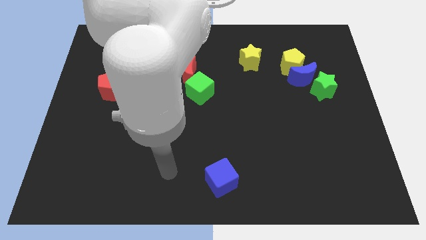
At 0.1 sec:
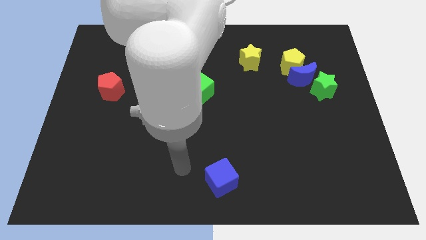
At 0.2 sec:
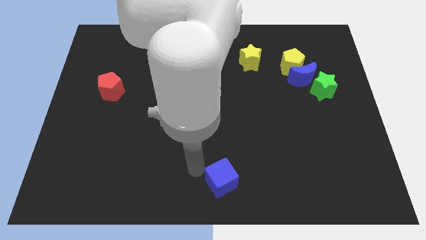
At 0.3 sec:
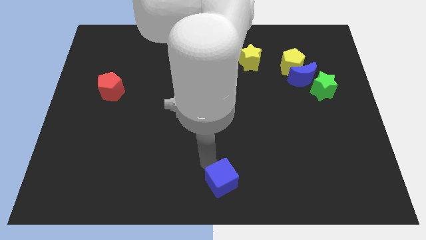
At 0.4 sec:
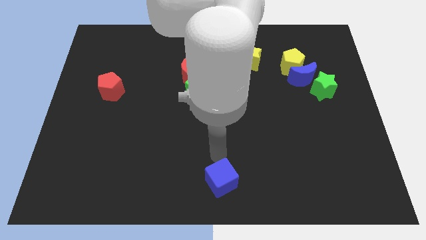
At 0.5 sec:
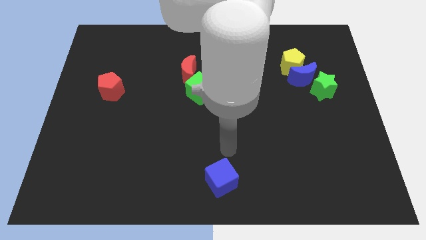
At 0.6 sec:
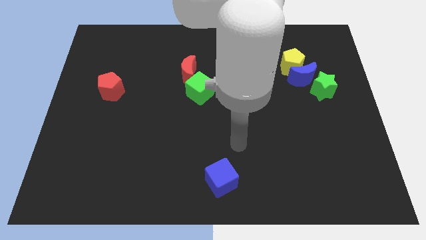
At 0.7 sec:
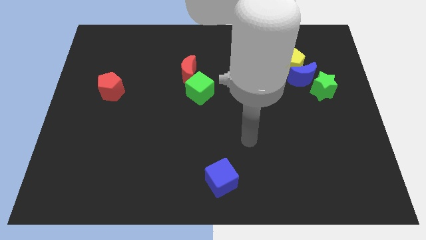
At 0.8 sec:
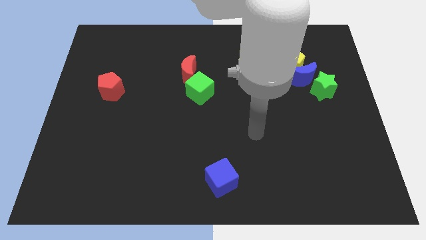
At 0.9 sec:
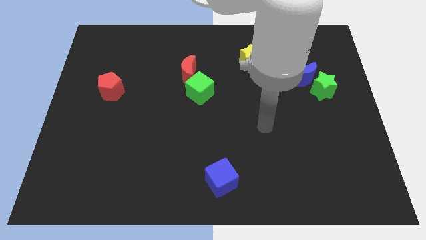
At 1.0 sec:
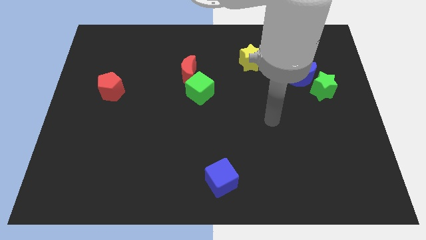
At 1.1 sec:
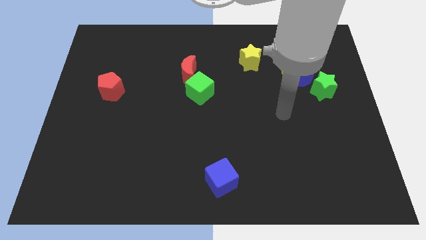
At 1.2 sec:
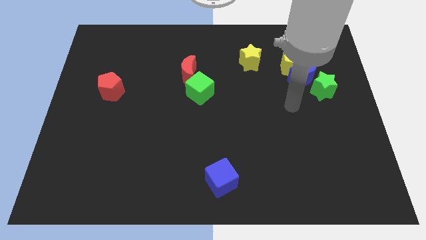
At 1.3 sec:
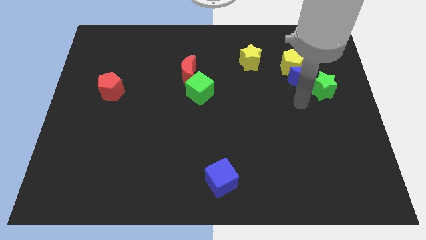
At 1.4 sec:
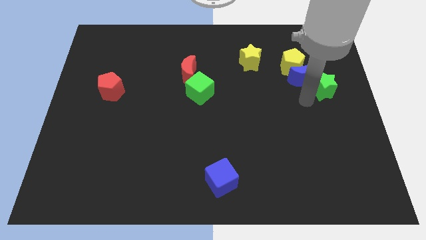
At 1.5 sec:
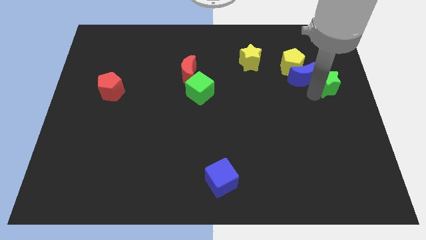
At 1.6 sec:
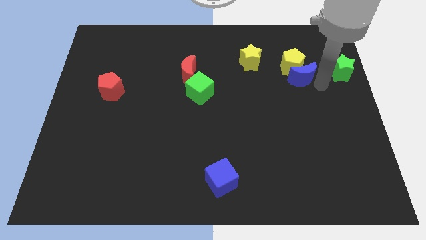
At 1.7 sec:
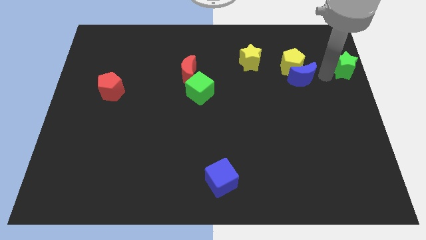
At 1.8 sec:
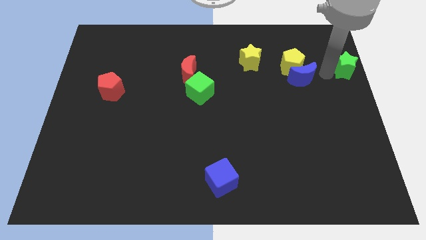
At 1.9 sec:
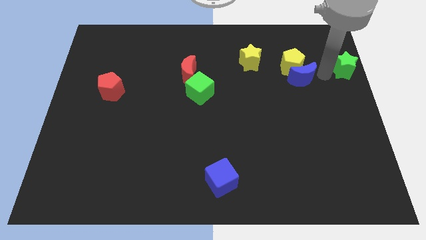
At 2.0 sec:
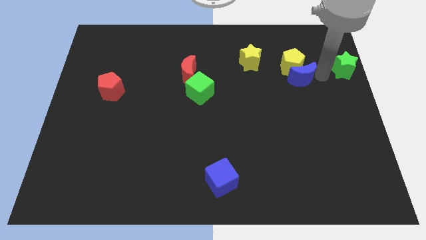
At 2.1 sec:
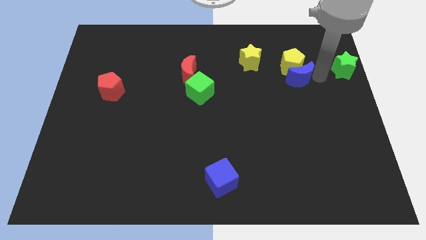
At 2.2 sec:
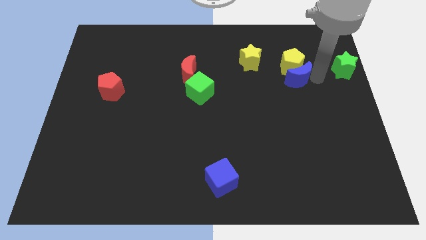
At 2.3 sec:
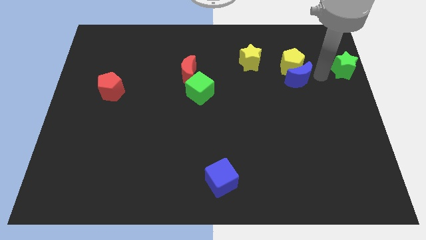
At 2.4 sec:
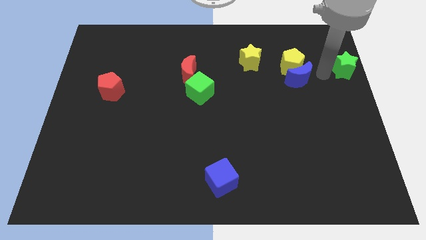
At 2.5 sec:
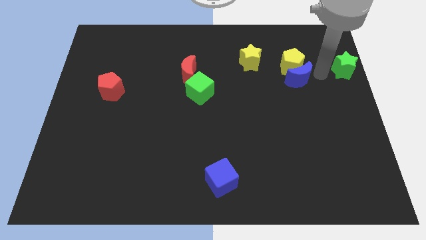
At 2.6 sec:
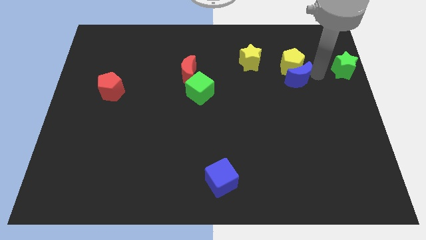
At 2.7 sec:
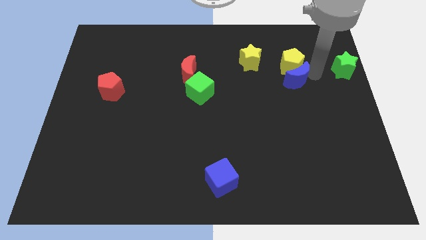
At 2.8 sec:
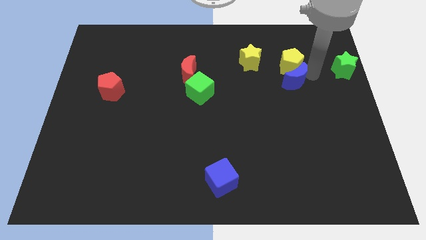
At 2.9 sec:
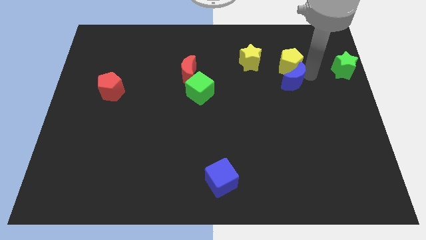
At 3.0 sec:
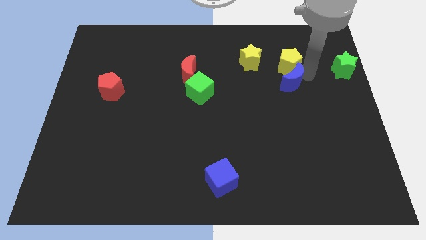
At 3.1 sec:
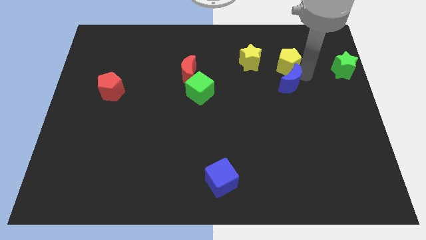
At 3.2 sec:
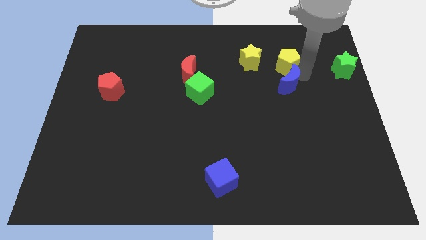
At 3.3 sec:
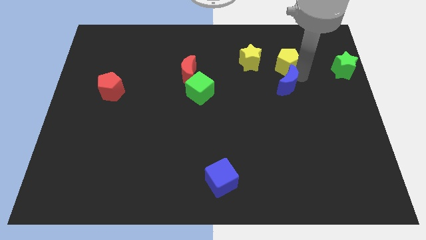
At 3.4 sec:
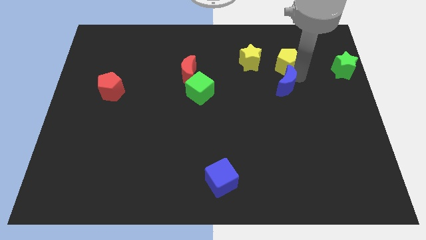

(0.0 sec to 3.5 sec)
pull the blue moon apart from the yellow pentagon and green star

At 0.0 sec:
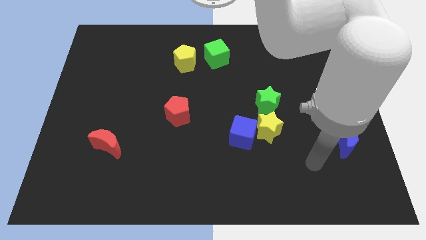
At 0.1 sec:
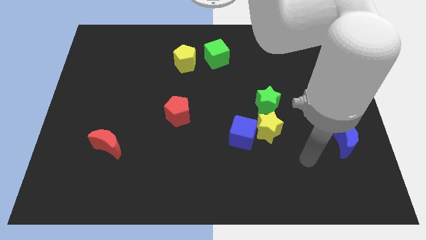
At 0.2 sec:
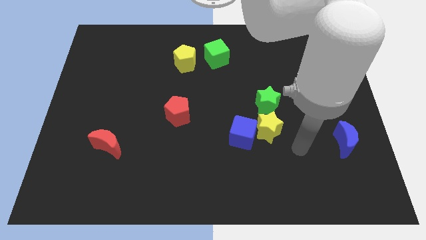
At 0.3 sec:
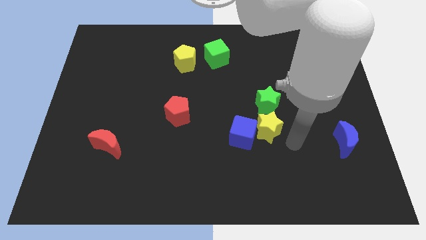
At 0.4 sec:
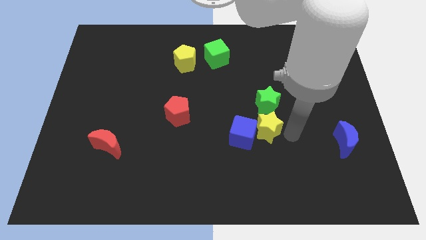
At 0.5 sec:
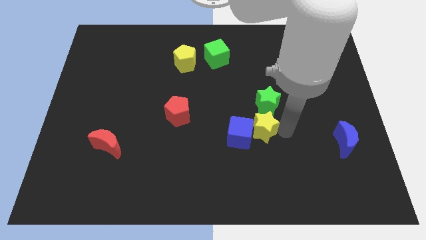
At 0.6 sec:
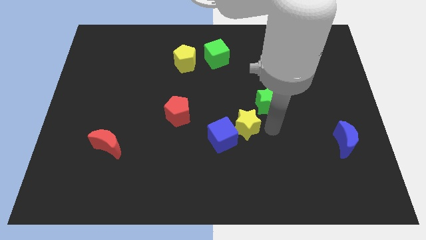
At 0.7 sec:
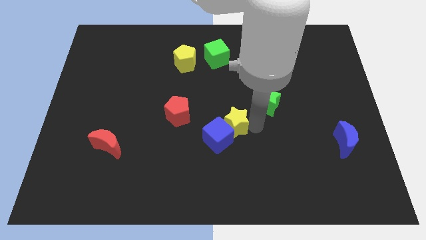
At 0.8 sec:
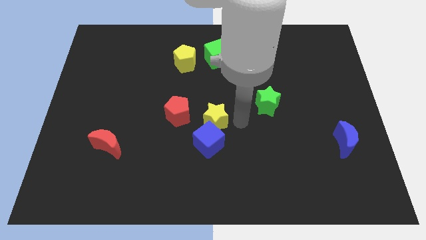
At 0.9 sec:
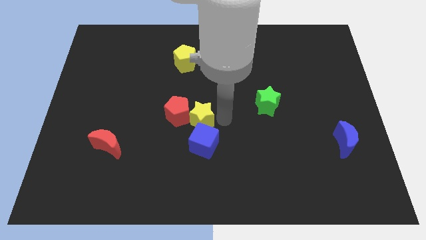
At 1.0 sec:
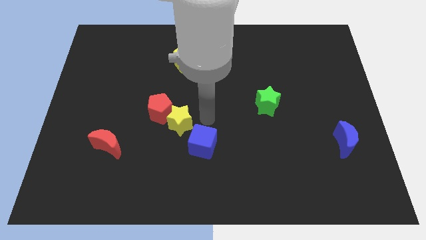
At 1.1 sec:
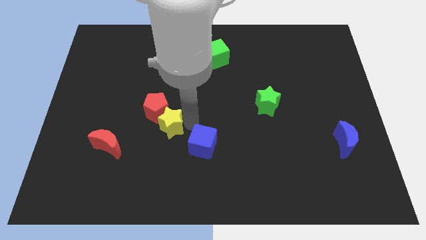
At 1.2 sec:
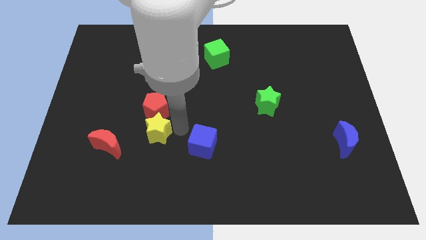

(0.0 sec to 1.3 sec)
separate the blue cube from the yellow star

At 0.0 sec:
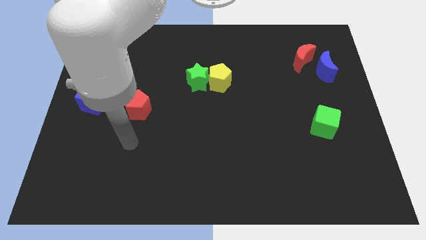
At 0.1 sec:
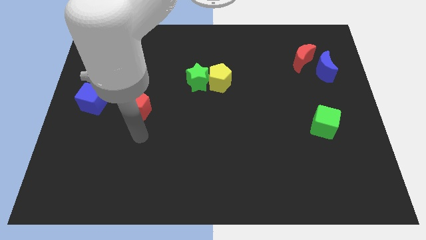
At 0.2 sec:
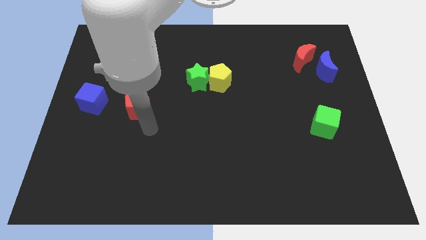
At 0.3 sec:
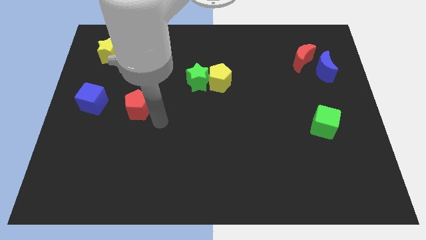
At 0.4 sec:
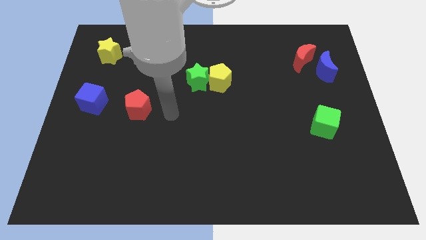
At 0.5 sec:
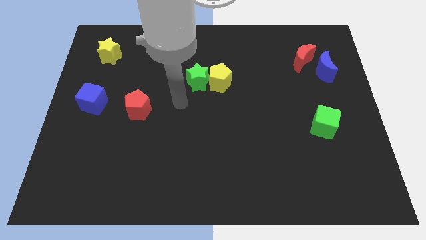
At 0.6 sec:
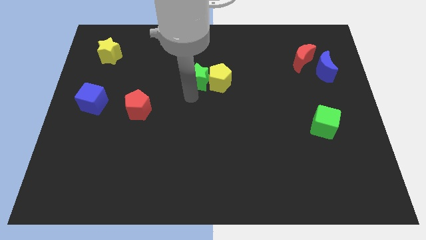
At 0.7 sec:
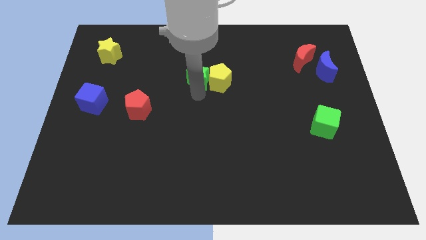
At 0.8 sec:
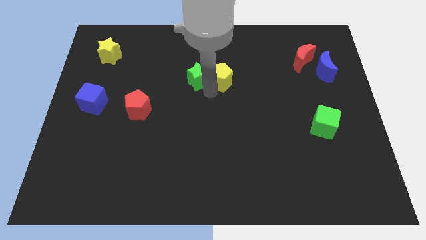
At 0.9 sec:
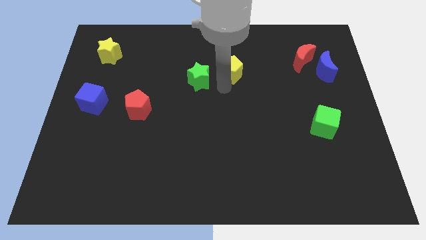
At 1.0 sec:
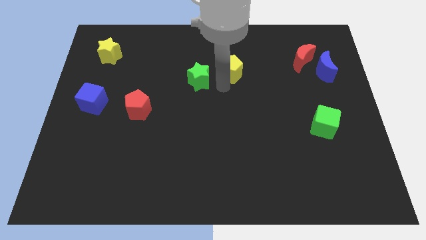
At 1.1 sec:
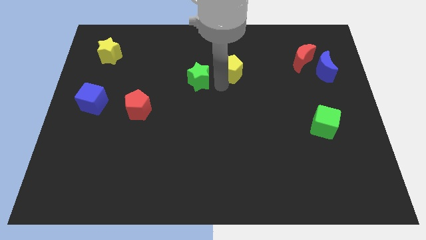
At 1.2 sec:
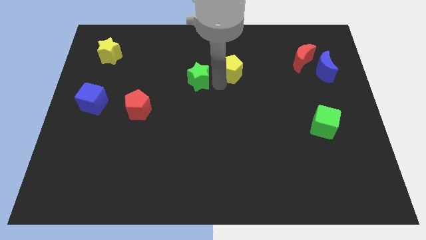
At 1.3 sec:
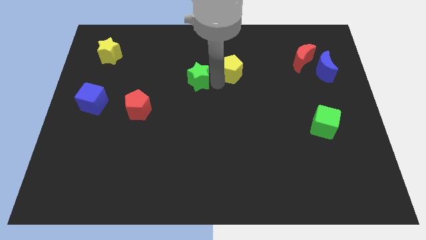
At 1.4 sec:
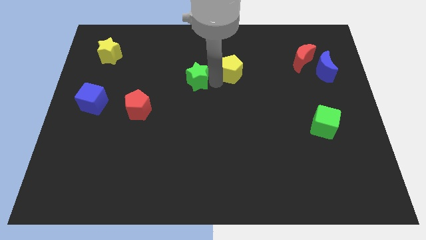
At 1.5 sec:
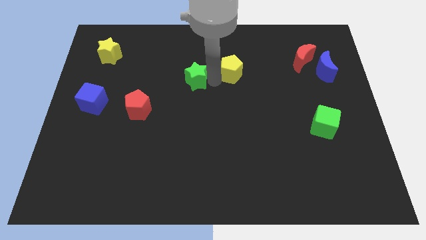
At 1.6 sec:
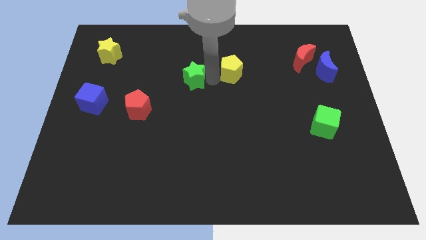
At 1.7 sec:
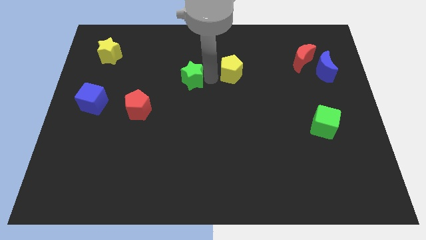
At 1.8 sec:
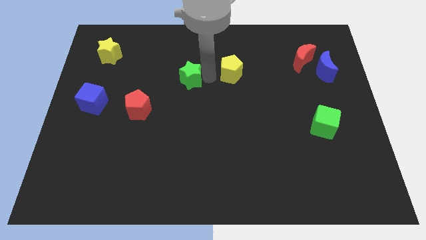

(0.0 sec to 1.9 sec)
pull the green star apart from the yellow pentagon

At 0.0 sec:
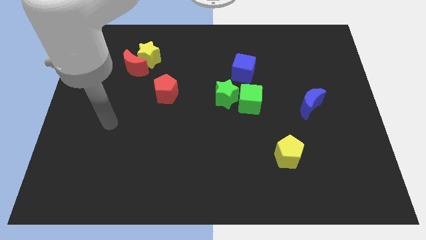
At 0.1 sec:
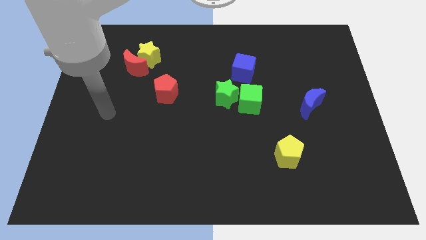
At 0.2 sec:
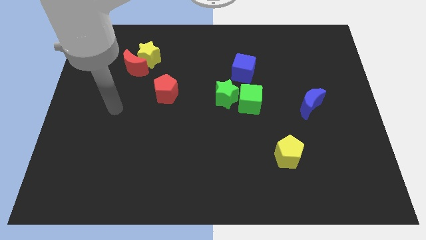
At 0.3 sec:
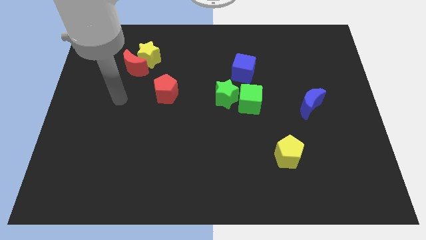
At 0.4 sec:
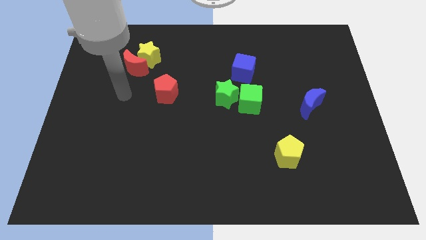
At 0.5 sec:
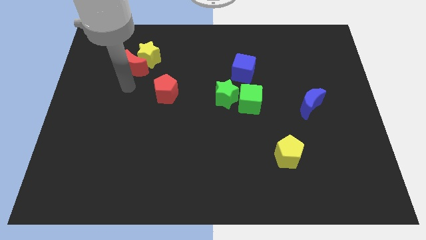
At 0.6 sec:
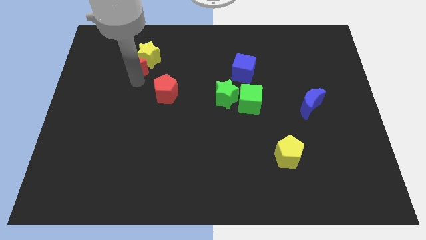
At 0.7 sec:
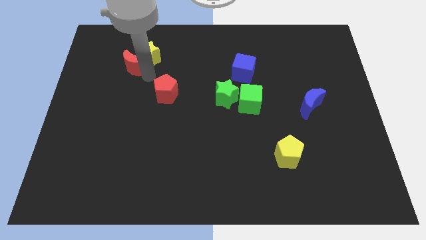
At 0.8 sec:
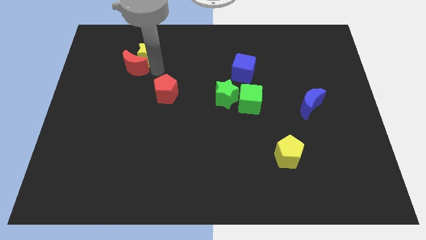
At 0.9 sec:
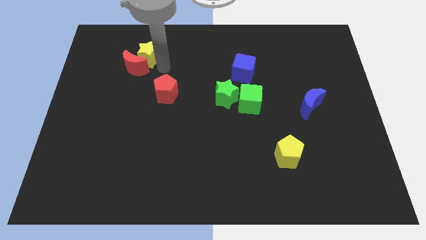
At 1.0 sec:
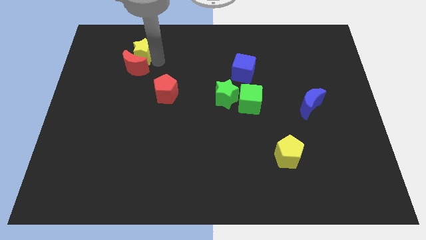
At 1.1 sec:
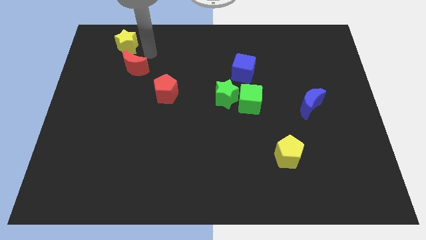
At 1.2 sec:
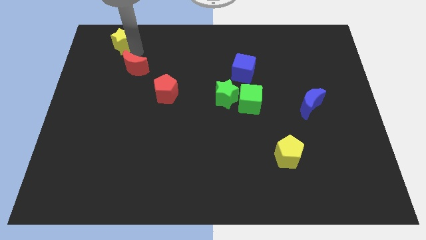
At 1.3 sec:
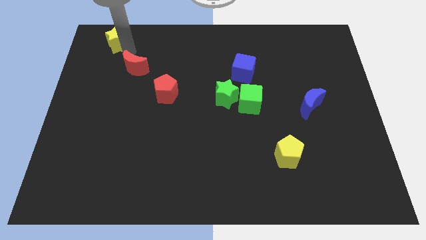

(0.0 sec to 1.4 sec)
move the red moon away from the yellow star

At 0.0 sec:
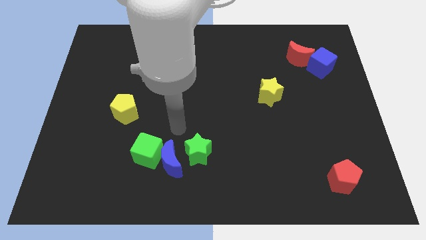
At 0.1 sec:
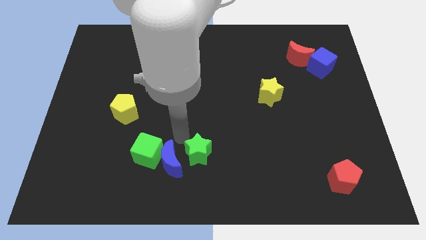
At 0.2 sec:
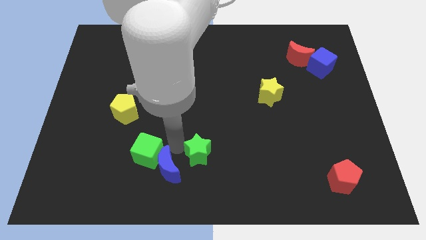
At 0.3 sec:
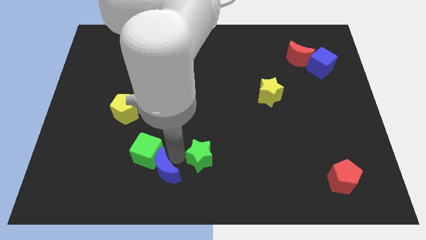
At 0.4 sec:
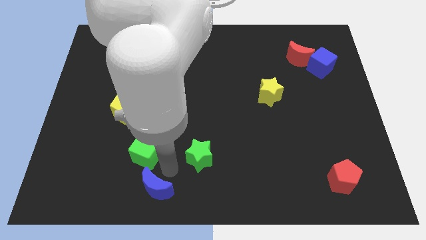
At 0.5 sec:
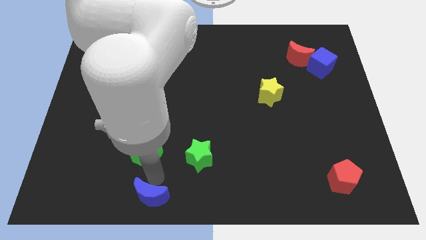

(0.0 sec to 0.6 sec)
separate the green cube from the blue moon

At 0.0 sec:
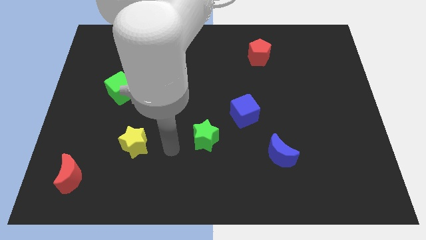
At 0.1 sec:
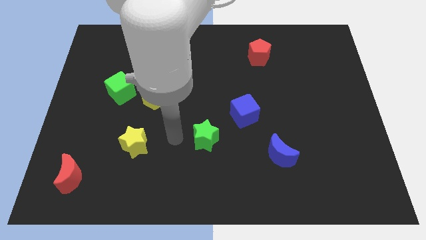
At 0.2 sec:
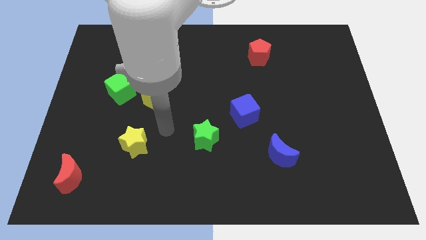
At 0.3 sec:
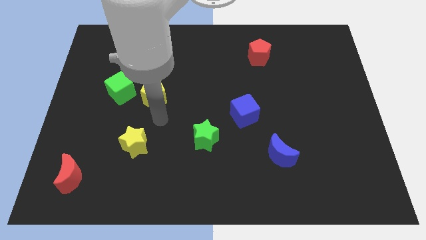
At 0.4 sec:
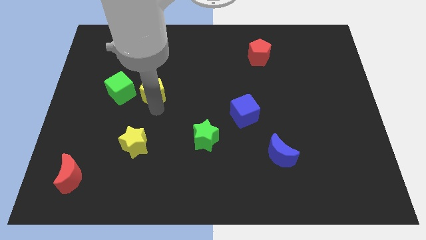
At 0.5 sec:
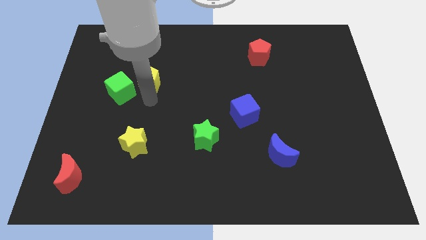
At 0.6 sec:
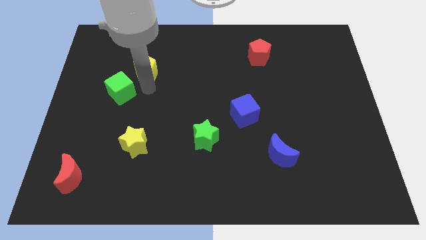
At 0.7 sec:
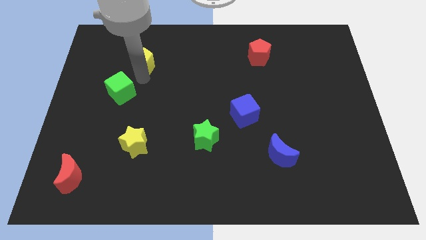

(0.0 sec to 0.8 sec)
separate the green cube from the yellow pentagon
